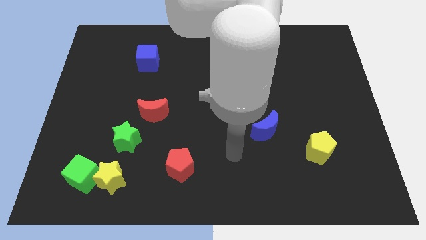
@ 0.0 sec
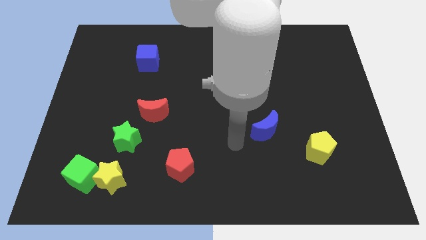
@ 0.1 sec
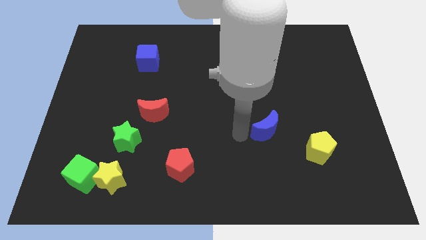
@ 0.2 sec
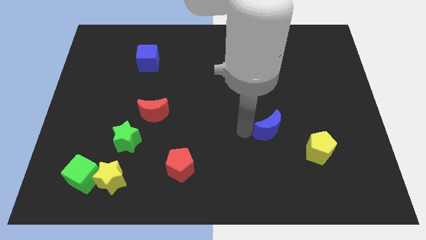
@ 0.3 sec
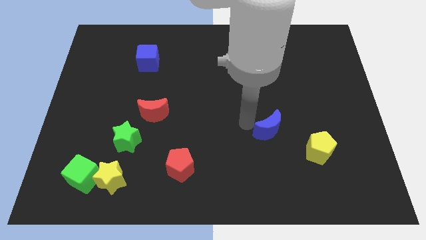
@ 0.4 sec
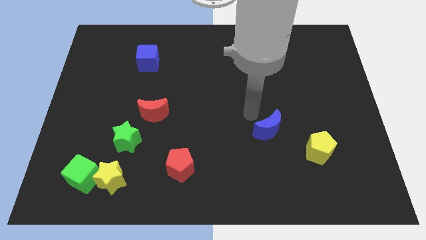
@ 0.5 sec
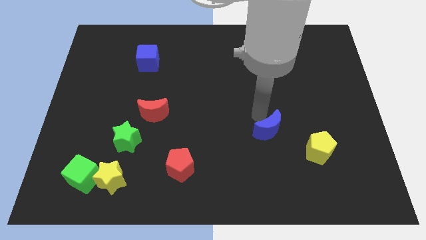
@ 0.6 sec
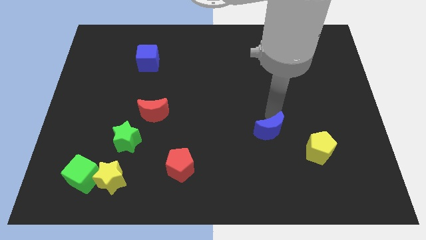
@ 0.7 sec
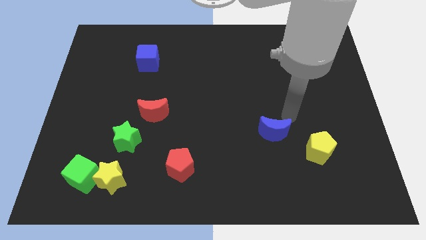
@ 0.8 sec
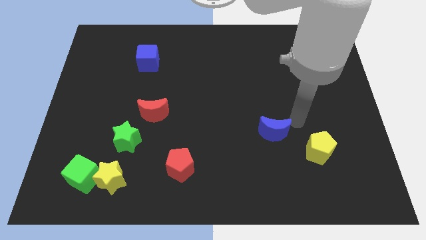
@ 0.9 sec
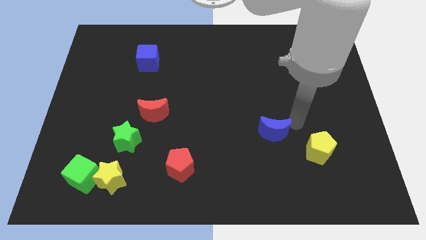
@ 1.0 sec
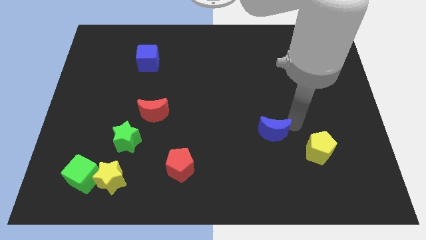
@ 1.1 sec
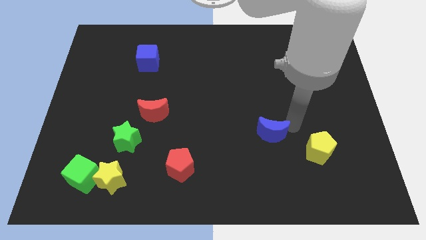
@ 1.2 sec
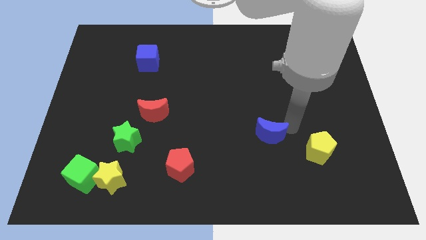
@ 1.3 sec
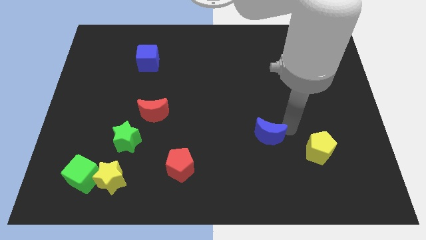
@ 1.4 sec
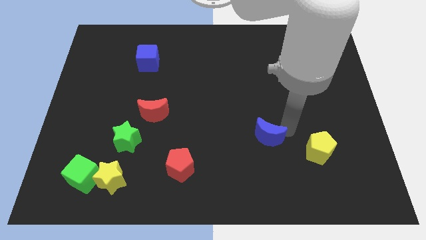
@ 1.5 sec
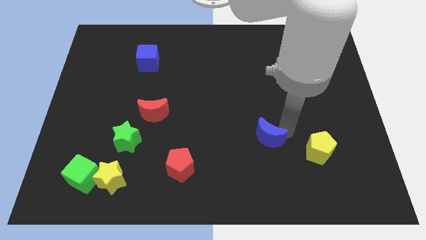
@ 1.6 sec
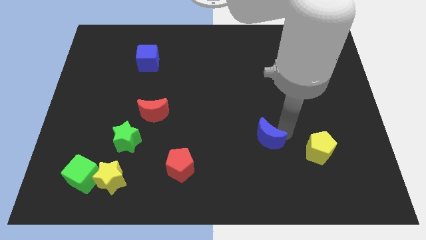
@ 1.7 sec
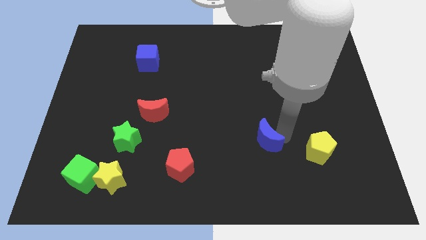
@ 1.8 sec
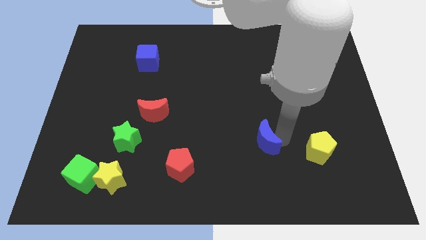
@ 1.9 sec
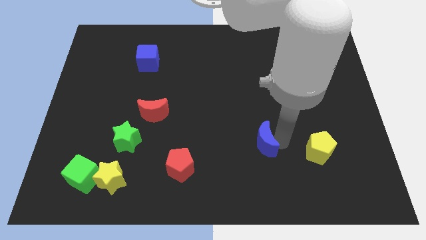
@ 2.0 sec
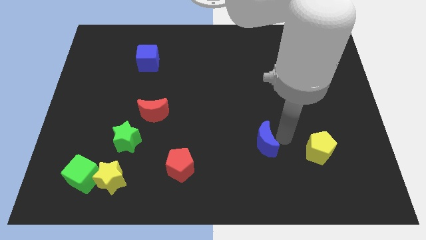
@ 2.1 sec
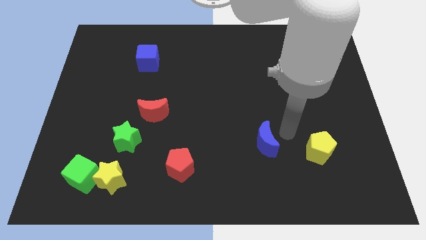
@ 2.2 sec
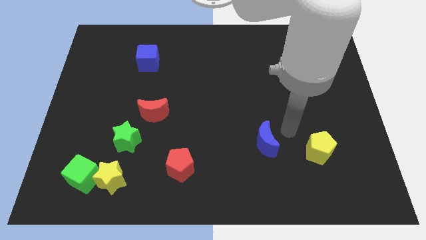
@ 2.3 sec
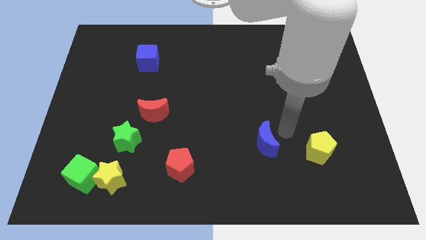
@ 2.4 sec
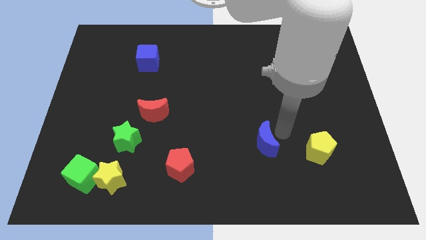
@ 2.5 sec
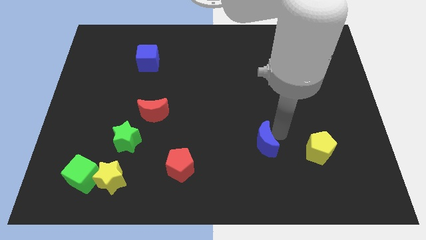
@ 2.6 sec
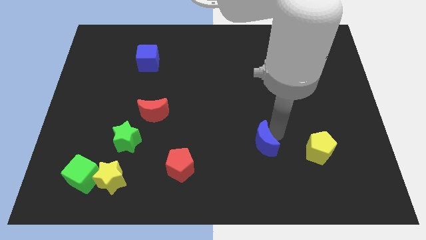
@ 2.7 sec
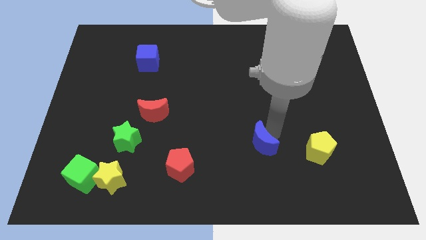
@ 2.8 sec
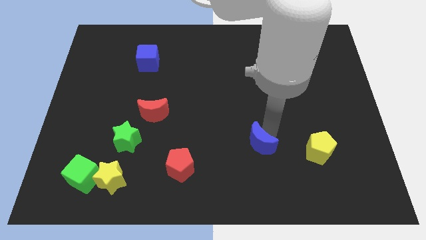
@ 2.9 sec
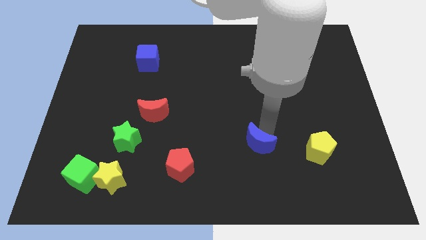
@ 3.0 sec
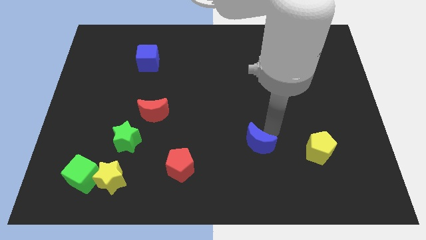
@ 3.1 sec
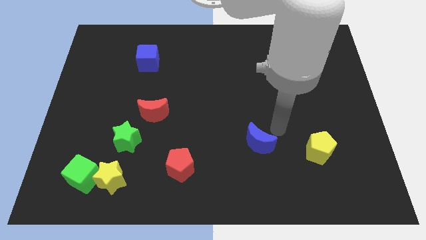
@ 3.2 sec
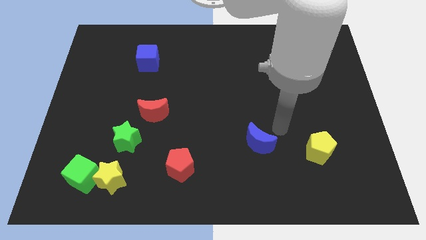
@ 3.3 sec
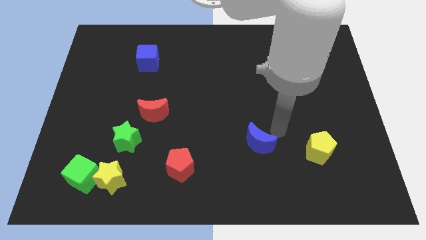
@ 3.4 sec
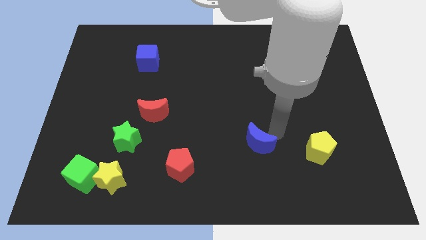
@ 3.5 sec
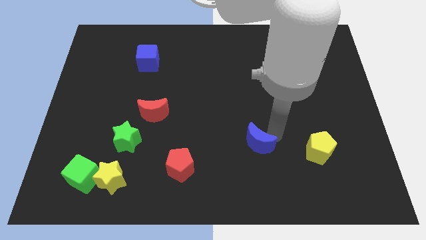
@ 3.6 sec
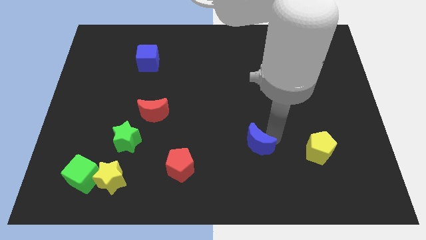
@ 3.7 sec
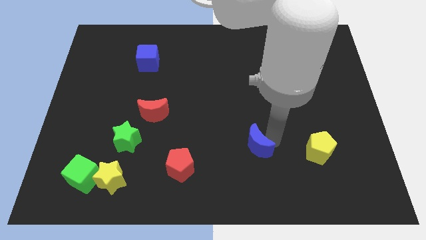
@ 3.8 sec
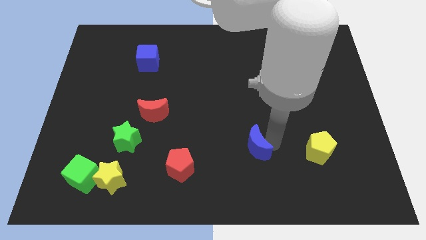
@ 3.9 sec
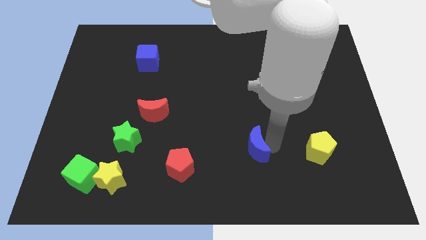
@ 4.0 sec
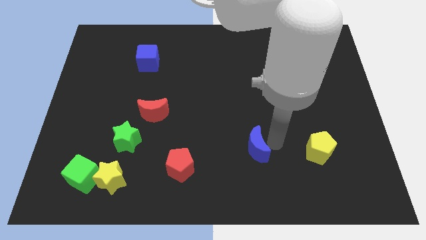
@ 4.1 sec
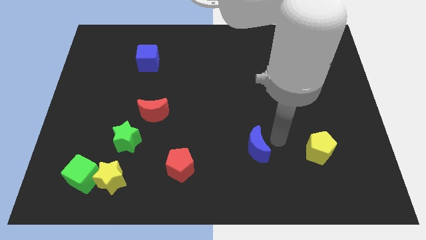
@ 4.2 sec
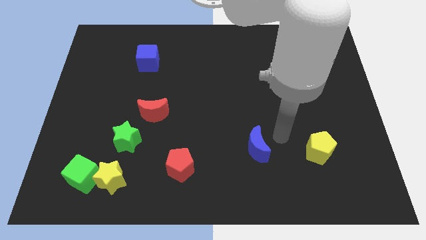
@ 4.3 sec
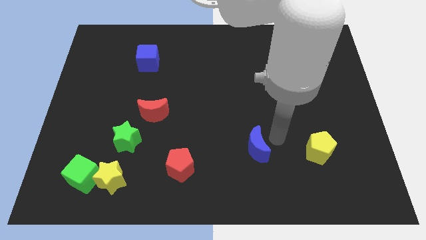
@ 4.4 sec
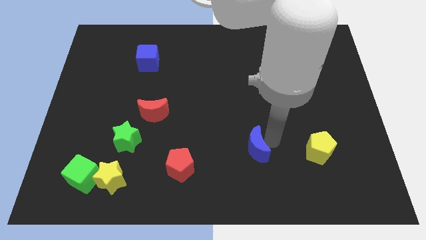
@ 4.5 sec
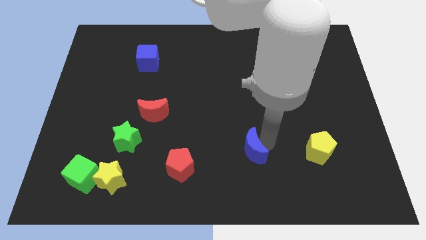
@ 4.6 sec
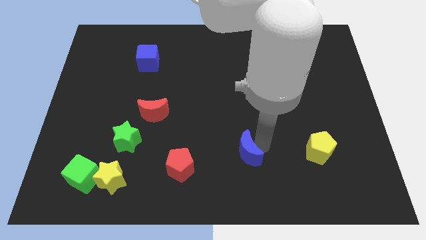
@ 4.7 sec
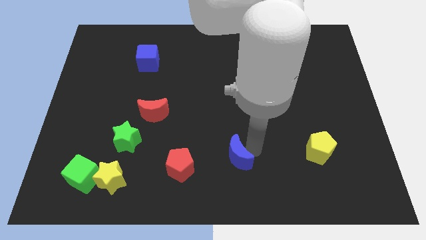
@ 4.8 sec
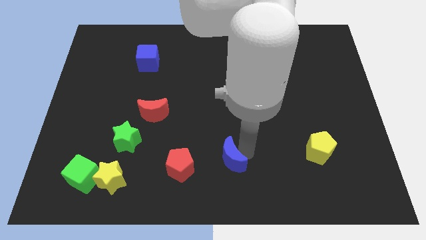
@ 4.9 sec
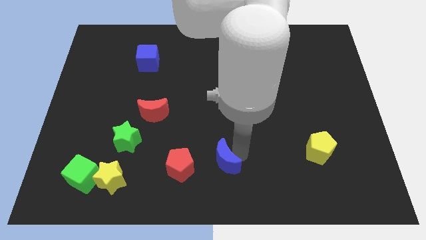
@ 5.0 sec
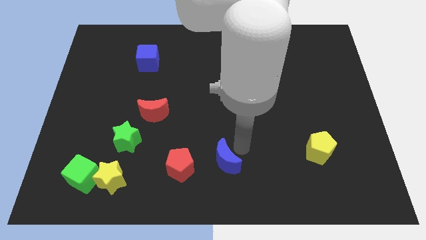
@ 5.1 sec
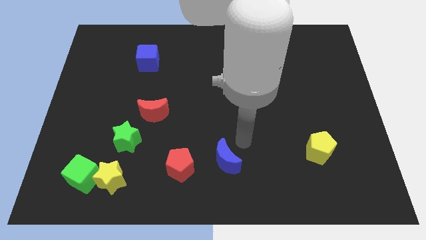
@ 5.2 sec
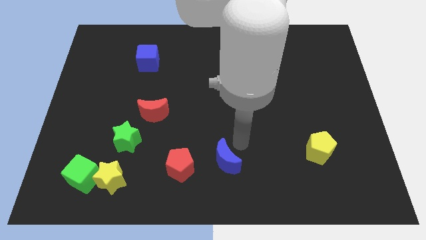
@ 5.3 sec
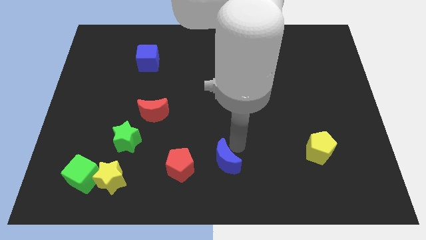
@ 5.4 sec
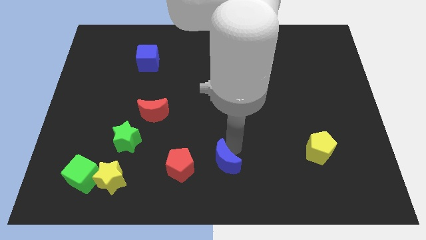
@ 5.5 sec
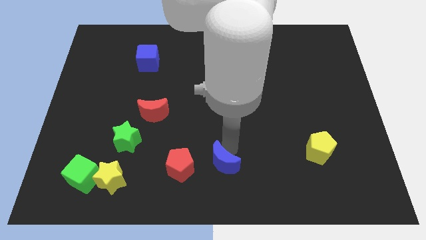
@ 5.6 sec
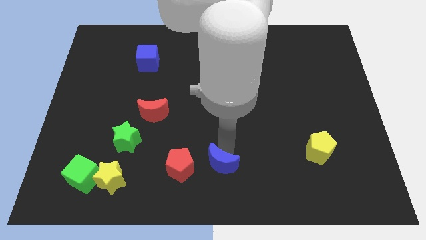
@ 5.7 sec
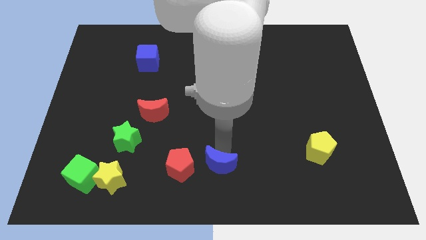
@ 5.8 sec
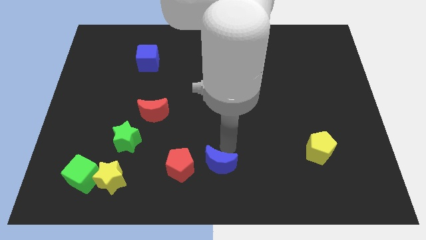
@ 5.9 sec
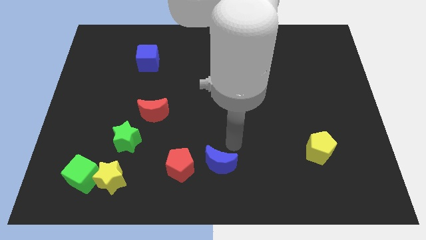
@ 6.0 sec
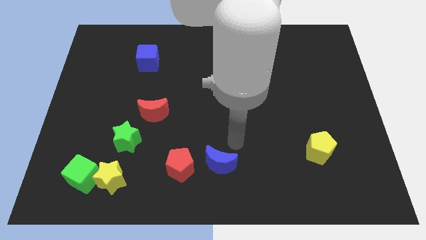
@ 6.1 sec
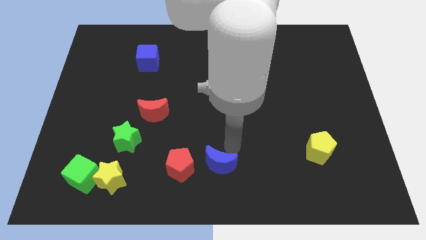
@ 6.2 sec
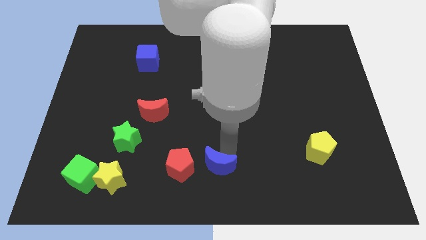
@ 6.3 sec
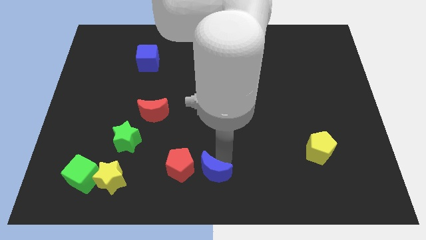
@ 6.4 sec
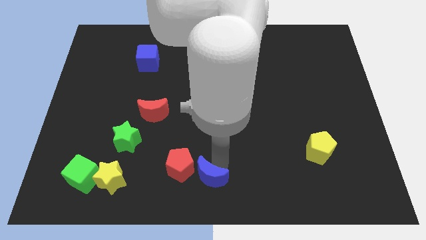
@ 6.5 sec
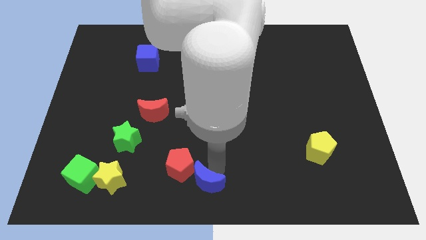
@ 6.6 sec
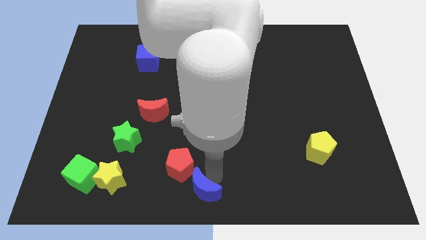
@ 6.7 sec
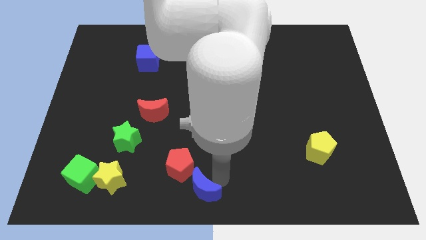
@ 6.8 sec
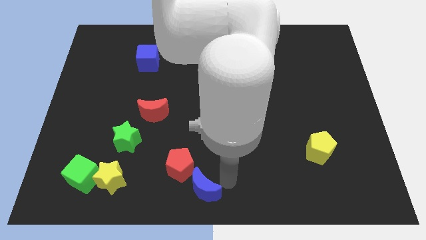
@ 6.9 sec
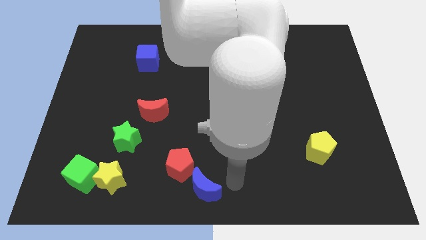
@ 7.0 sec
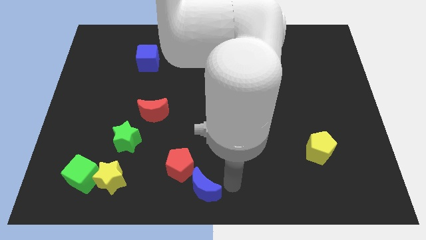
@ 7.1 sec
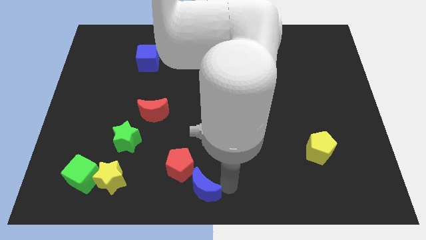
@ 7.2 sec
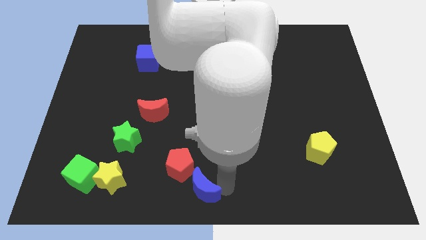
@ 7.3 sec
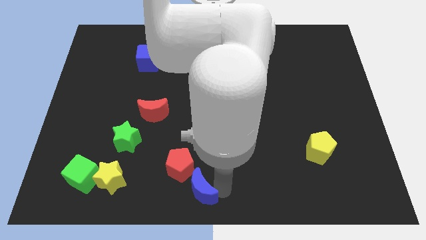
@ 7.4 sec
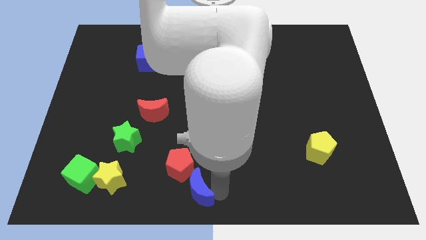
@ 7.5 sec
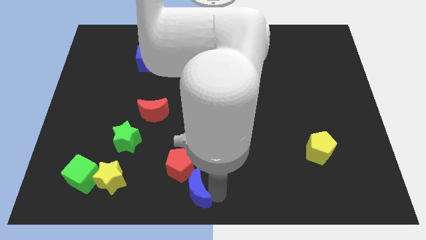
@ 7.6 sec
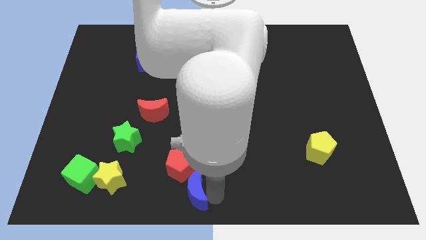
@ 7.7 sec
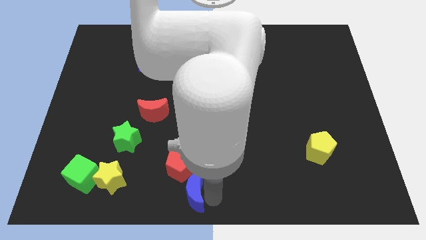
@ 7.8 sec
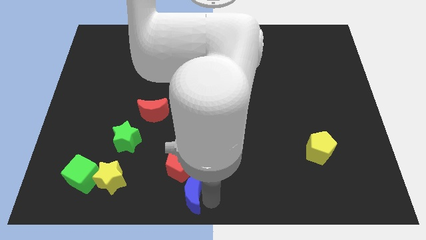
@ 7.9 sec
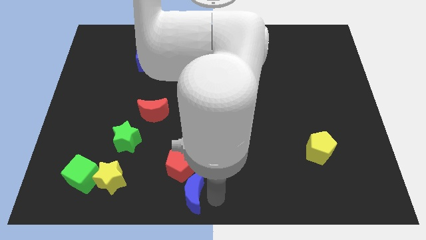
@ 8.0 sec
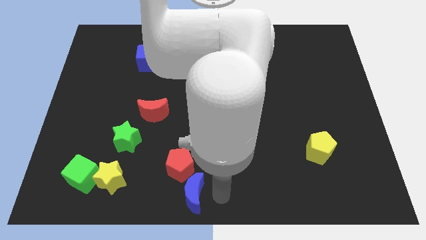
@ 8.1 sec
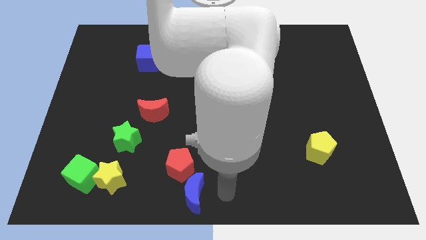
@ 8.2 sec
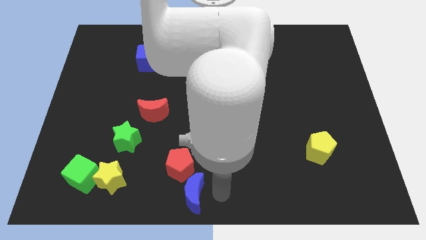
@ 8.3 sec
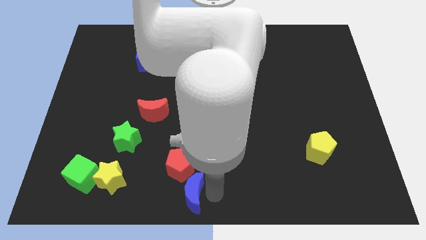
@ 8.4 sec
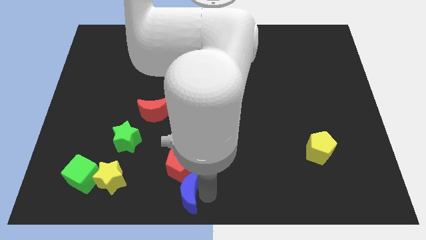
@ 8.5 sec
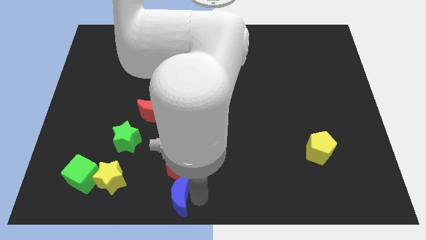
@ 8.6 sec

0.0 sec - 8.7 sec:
move the blue moon just right of the yellow star
